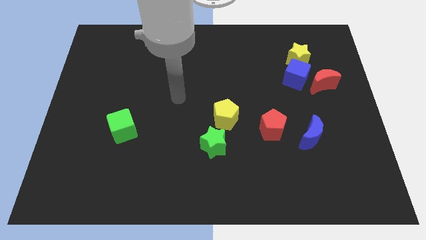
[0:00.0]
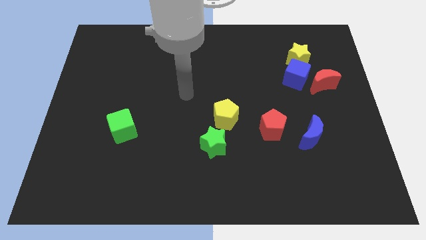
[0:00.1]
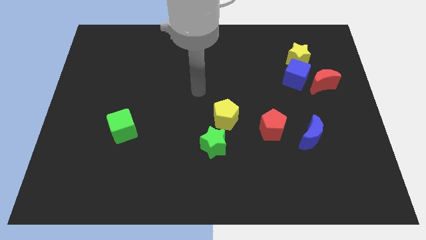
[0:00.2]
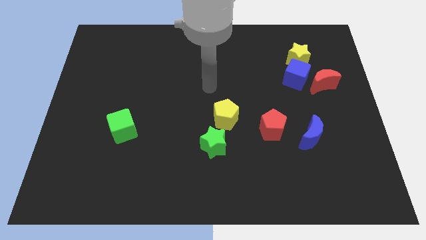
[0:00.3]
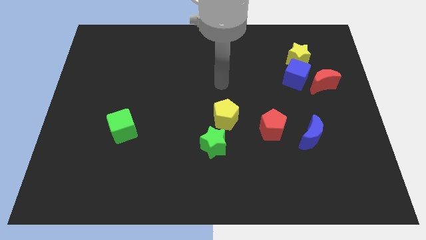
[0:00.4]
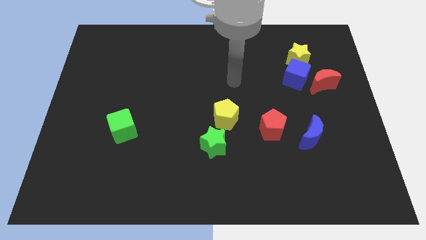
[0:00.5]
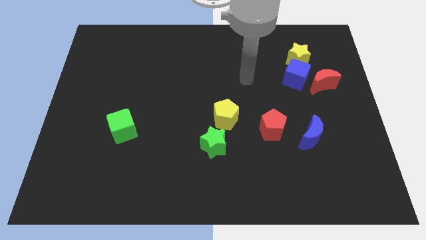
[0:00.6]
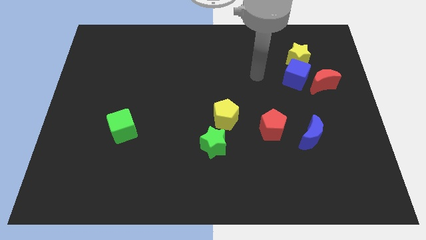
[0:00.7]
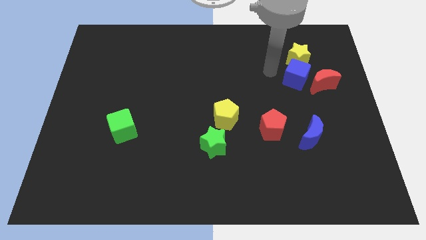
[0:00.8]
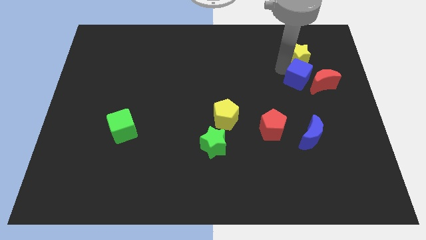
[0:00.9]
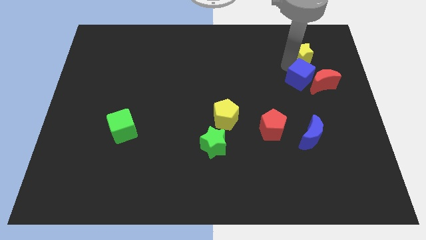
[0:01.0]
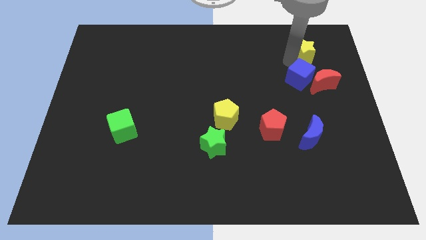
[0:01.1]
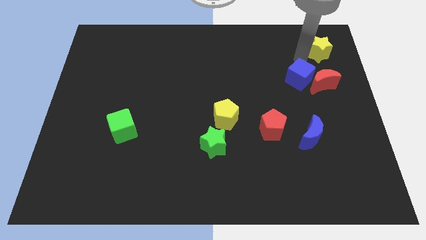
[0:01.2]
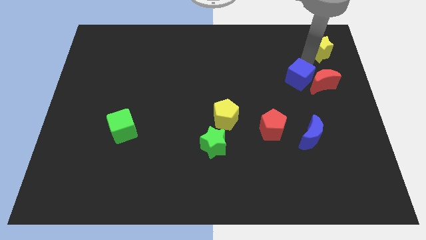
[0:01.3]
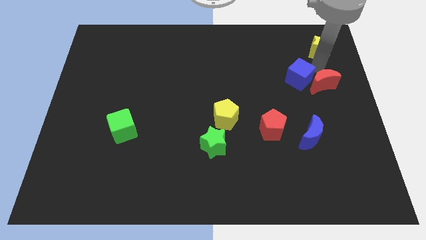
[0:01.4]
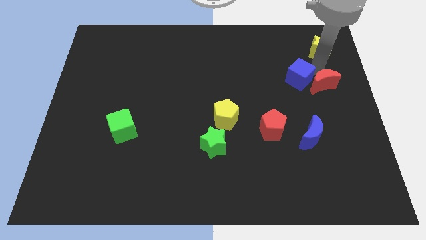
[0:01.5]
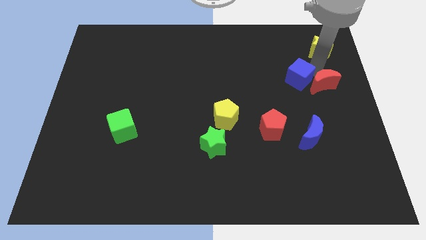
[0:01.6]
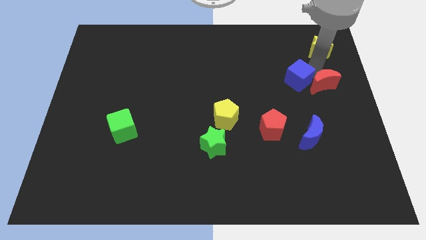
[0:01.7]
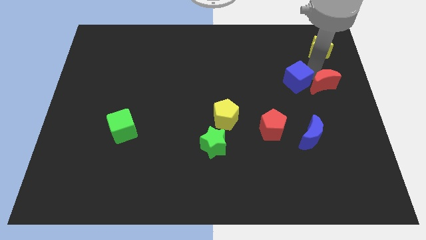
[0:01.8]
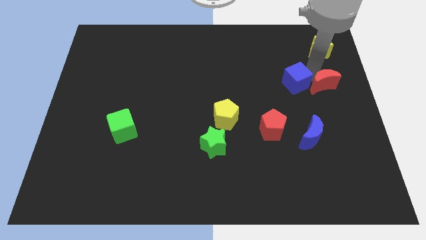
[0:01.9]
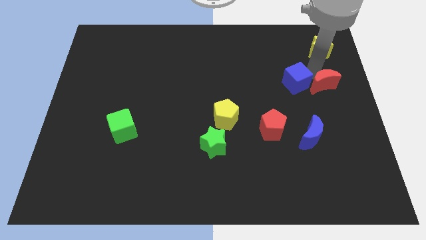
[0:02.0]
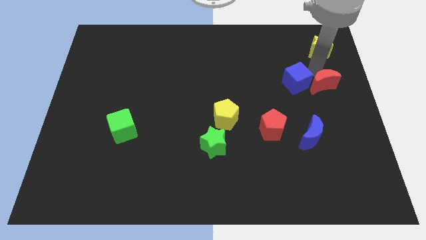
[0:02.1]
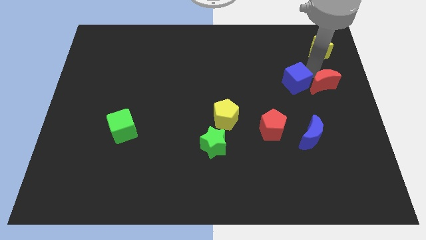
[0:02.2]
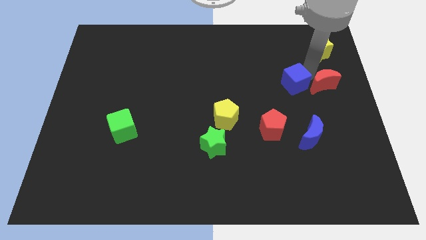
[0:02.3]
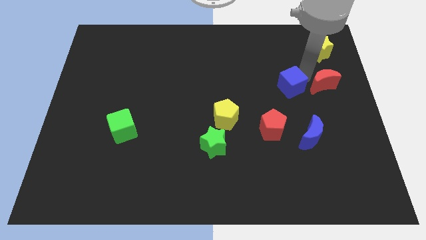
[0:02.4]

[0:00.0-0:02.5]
move the blue cube away from the yellow star and red moon

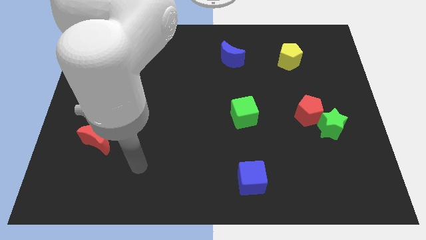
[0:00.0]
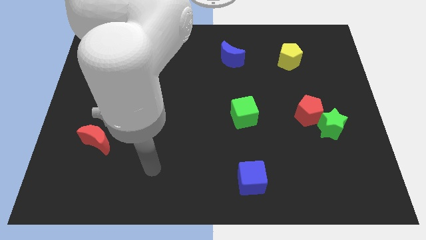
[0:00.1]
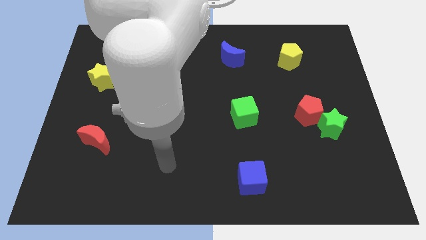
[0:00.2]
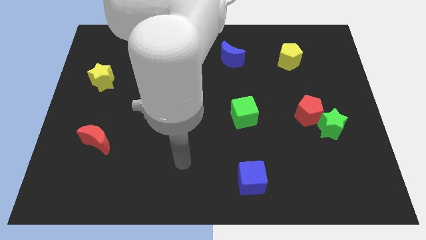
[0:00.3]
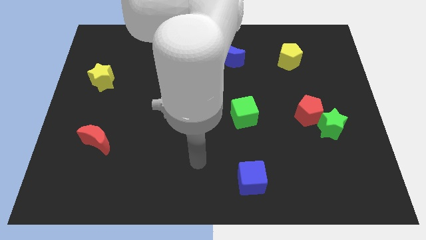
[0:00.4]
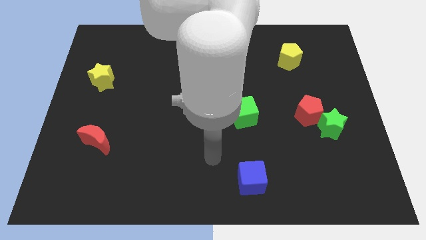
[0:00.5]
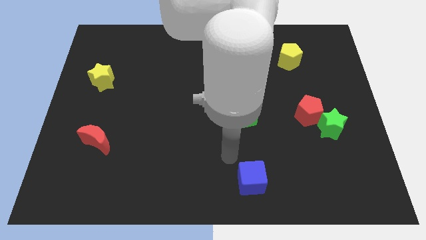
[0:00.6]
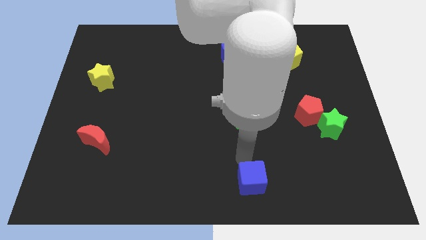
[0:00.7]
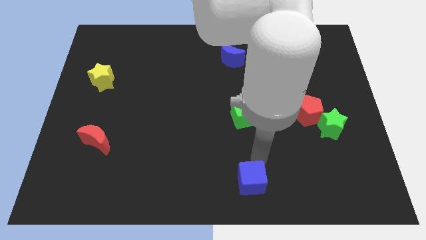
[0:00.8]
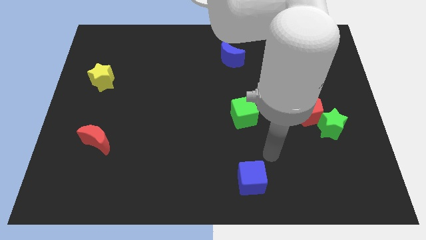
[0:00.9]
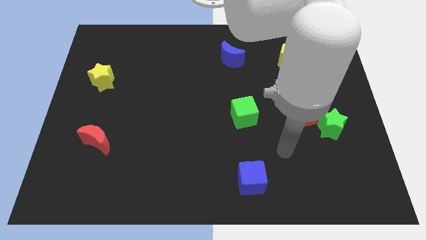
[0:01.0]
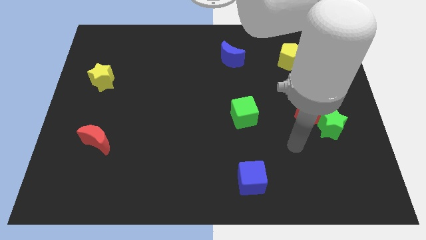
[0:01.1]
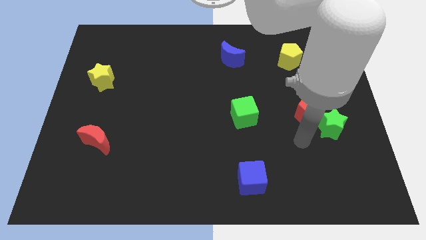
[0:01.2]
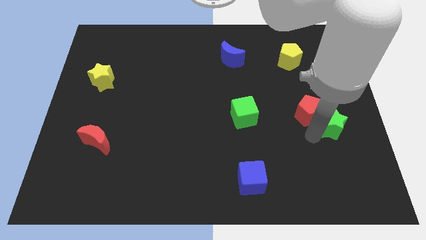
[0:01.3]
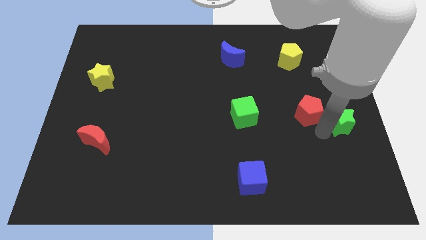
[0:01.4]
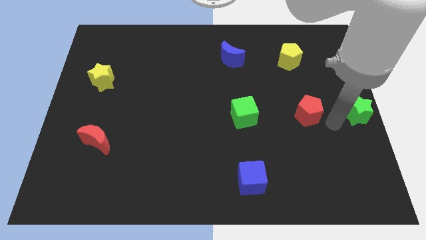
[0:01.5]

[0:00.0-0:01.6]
separate the red pentagon from the green star

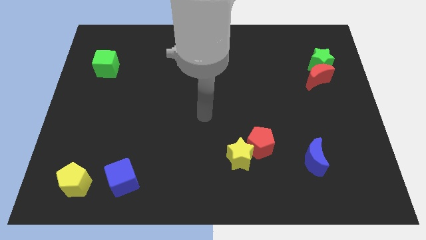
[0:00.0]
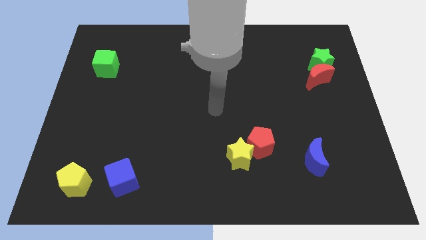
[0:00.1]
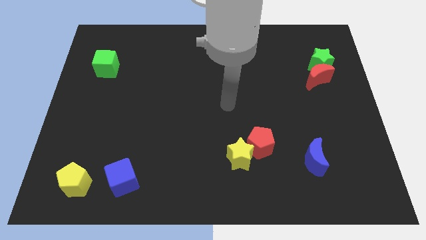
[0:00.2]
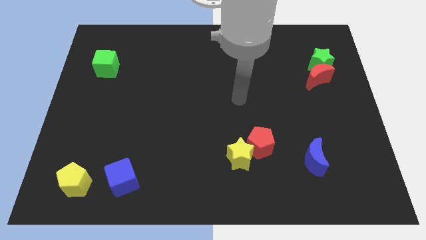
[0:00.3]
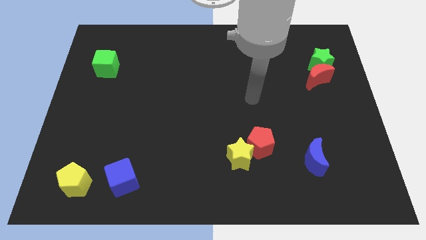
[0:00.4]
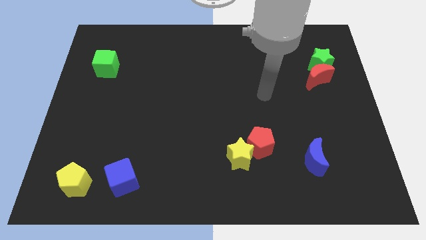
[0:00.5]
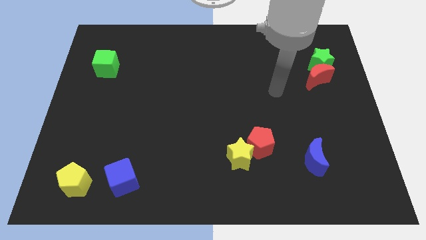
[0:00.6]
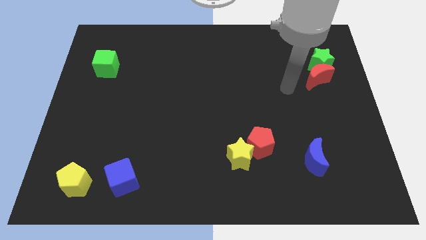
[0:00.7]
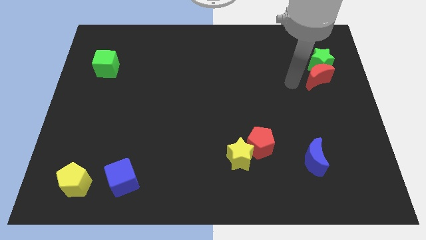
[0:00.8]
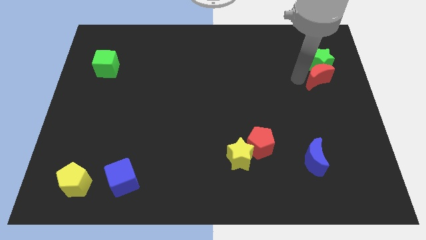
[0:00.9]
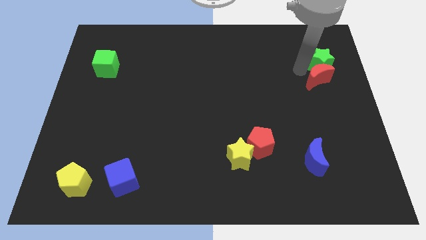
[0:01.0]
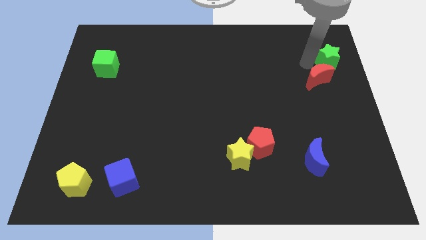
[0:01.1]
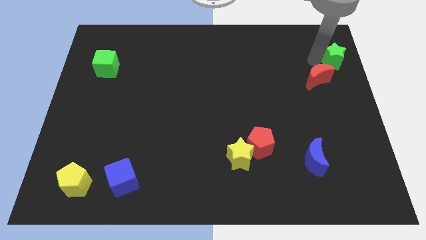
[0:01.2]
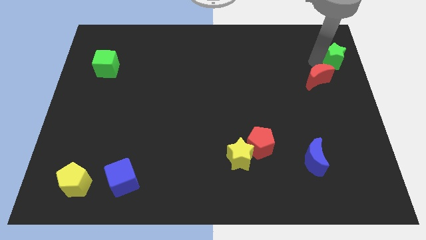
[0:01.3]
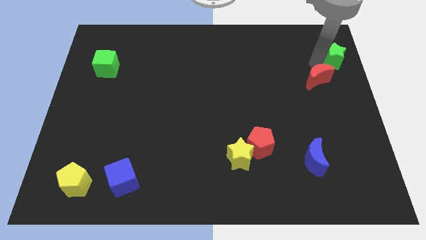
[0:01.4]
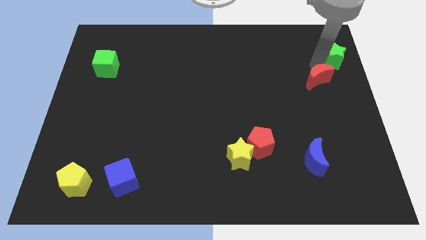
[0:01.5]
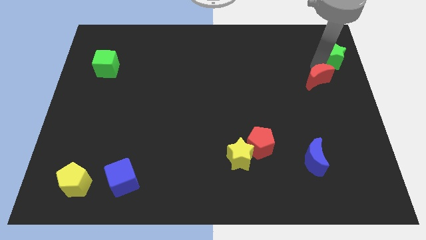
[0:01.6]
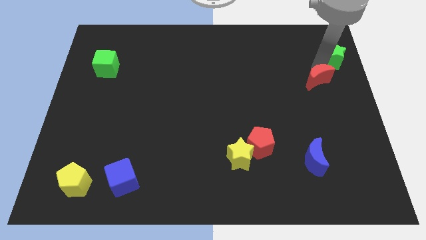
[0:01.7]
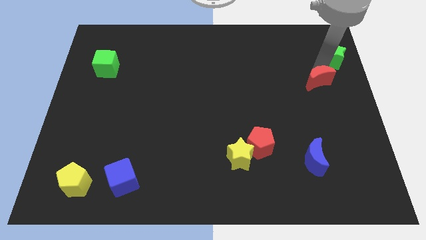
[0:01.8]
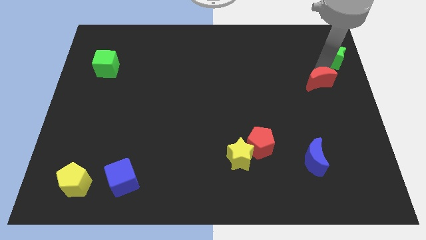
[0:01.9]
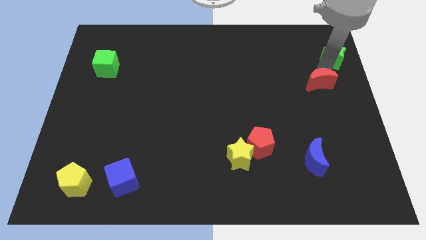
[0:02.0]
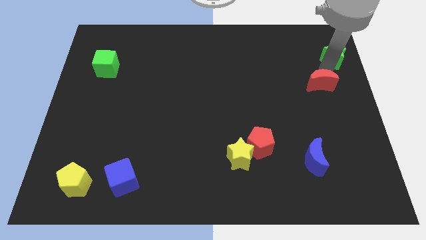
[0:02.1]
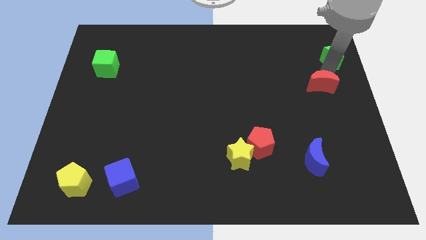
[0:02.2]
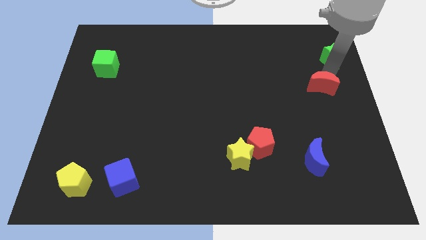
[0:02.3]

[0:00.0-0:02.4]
pull the red moon apart from the green star

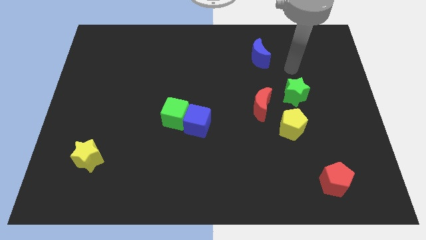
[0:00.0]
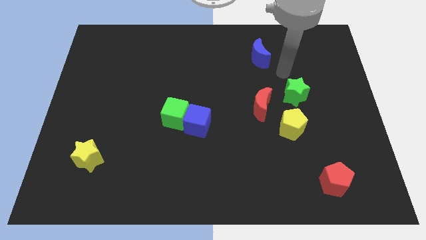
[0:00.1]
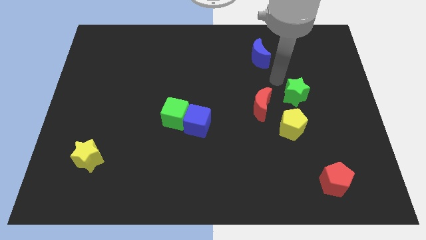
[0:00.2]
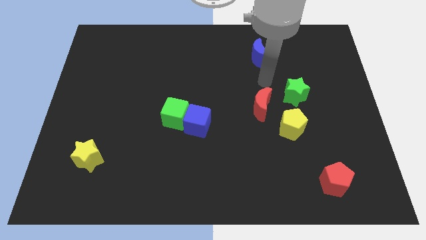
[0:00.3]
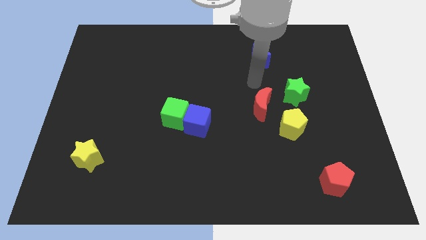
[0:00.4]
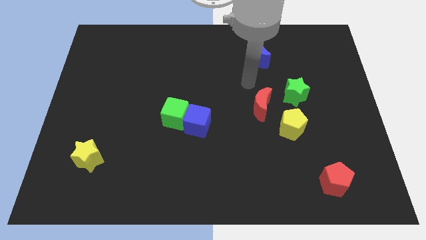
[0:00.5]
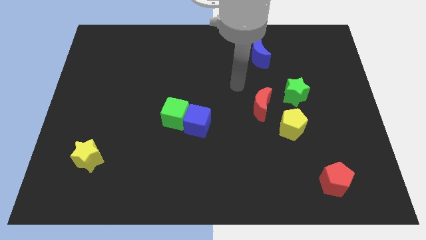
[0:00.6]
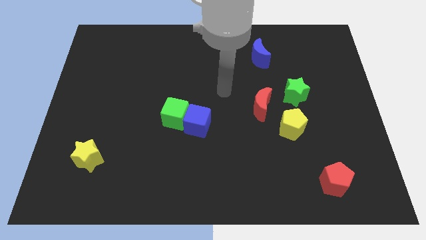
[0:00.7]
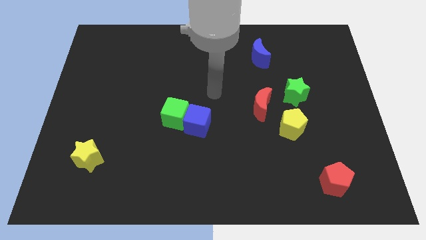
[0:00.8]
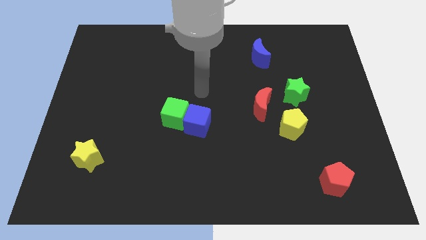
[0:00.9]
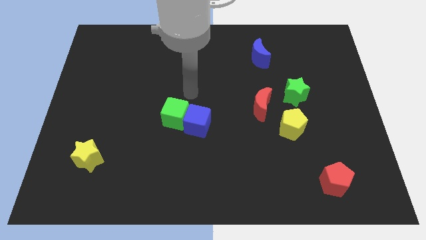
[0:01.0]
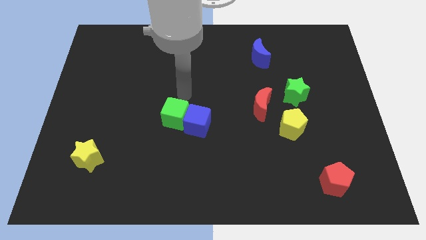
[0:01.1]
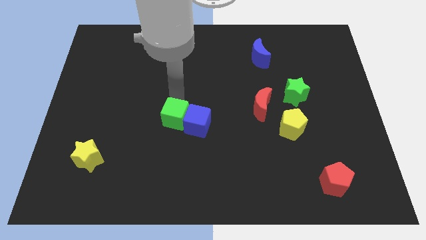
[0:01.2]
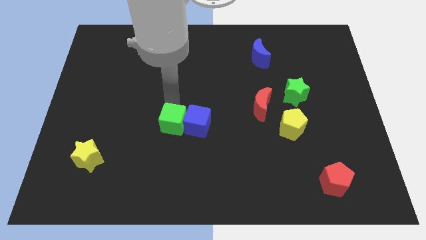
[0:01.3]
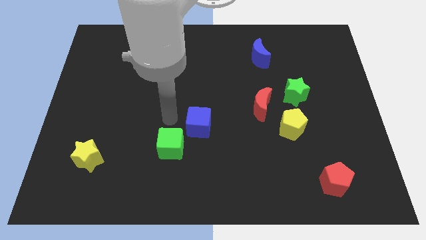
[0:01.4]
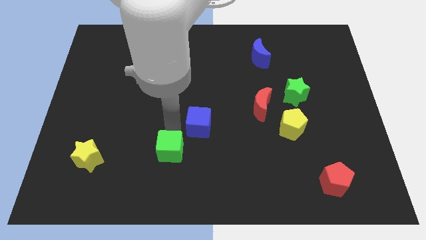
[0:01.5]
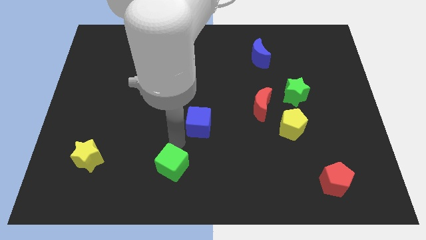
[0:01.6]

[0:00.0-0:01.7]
move the blue cube away from the green cube

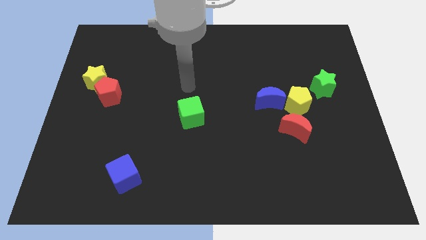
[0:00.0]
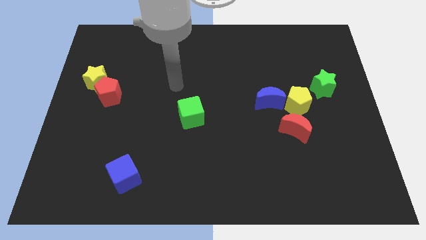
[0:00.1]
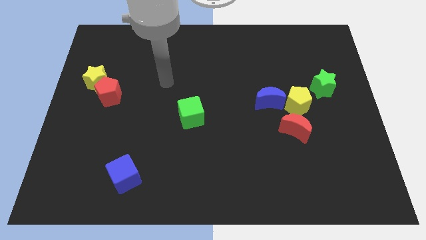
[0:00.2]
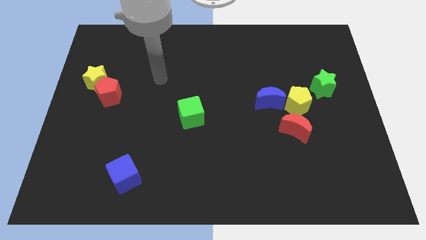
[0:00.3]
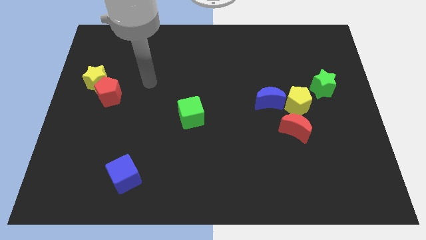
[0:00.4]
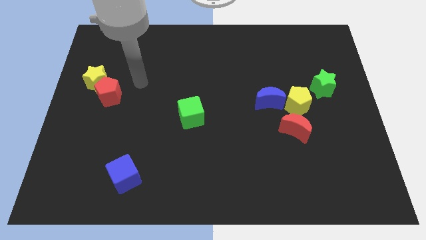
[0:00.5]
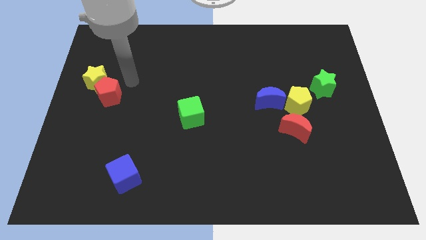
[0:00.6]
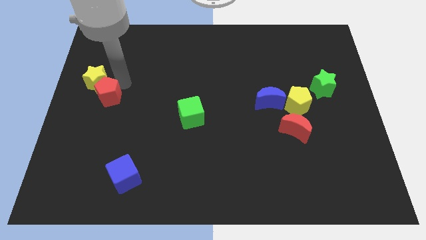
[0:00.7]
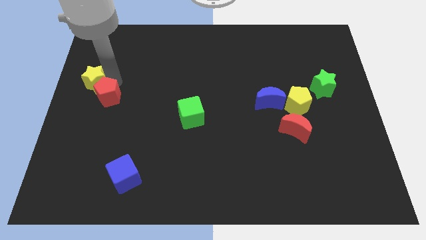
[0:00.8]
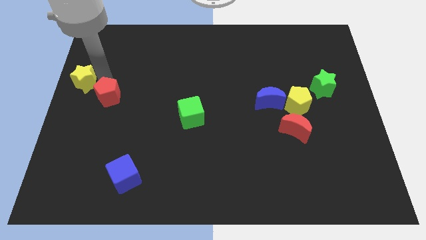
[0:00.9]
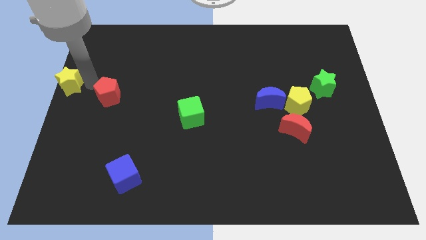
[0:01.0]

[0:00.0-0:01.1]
pull the red pentagon apart from the yellow star
